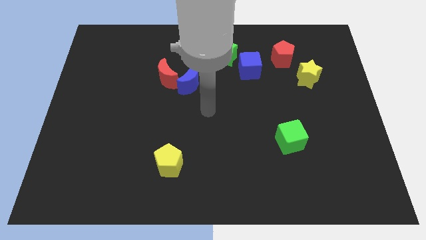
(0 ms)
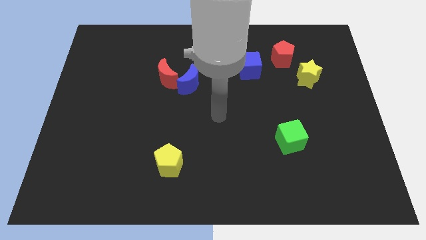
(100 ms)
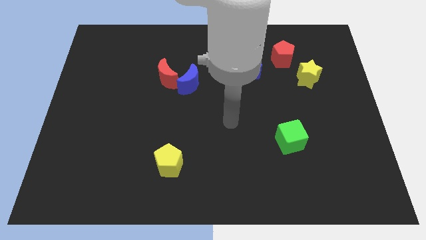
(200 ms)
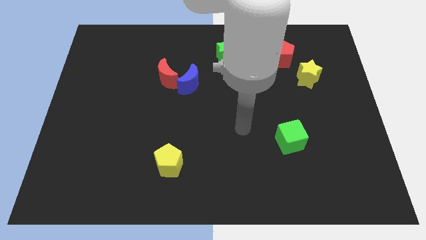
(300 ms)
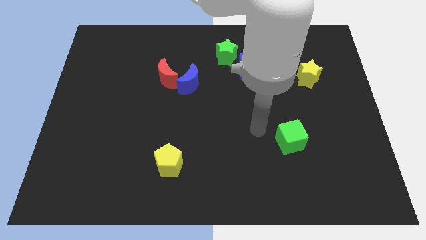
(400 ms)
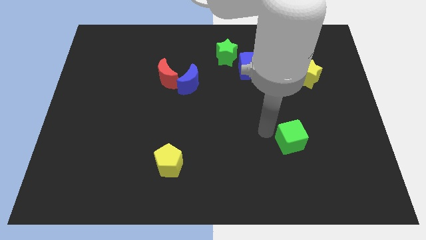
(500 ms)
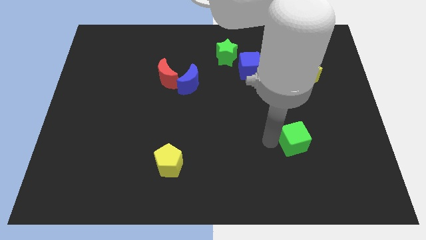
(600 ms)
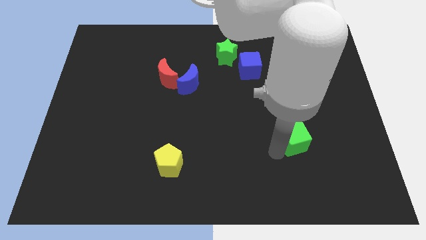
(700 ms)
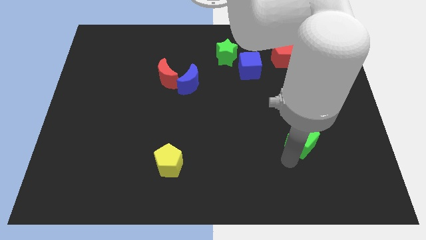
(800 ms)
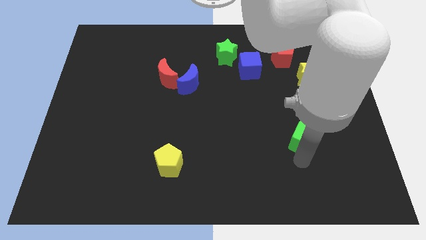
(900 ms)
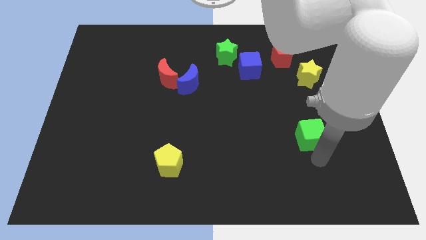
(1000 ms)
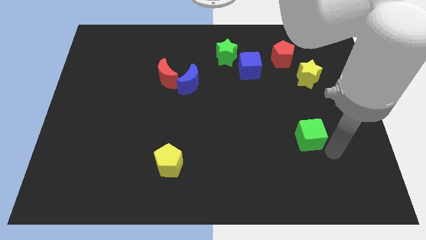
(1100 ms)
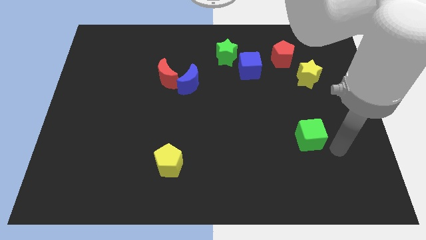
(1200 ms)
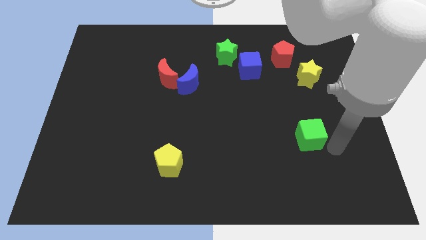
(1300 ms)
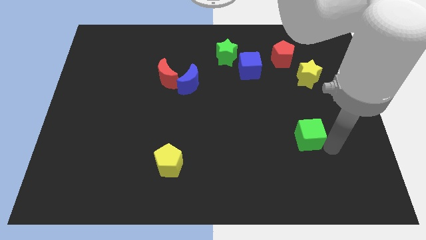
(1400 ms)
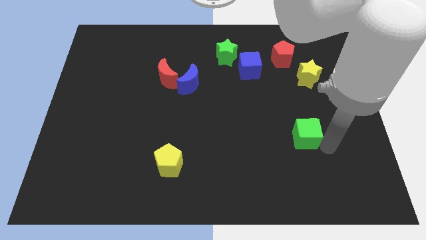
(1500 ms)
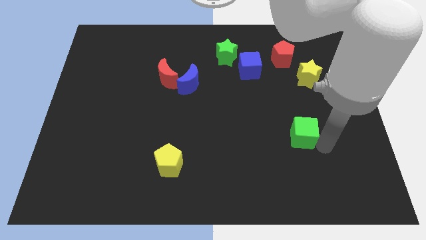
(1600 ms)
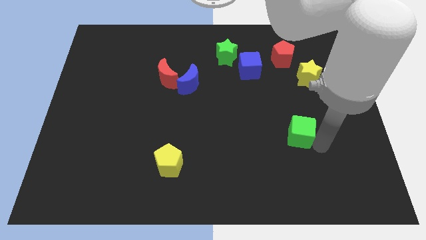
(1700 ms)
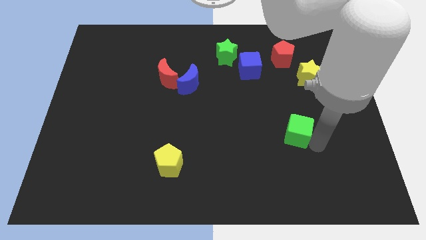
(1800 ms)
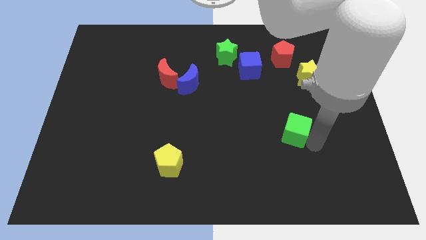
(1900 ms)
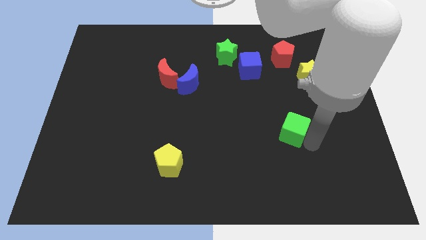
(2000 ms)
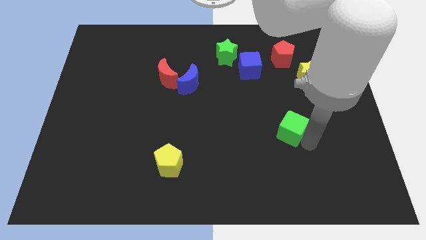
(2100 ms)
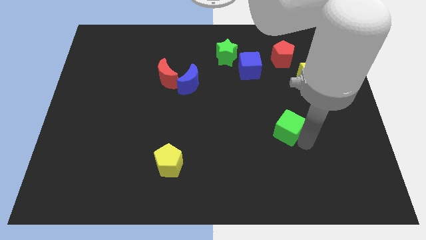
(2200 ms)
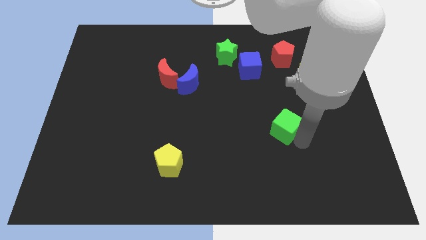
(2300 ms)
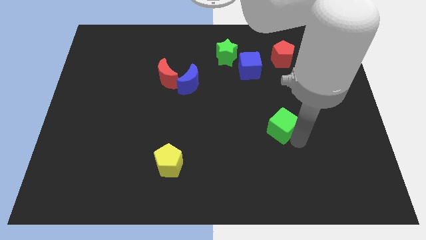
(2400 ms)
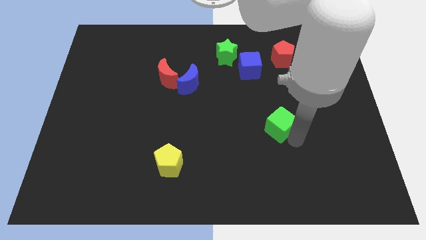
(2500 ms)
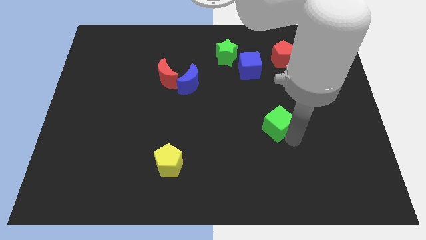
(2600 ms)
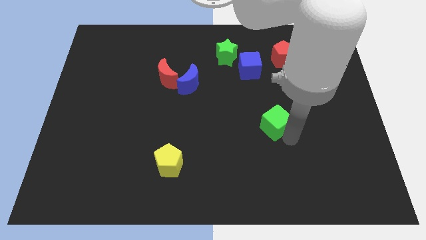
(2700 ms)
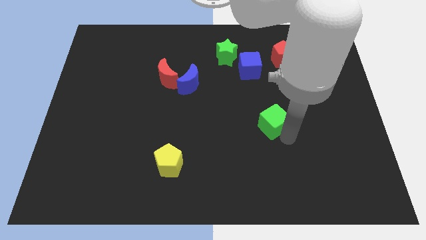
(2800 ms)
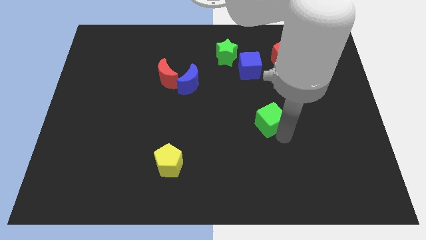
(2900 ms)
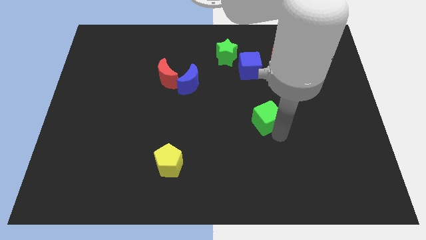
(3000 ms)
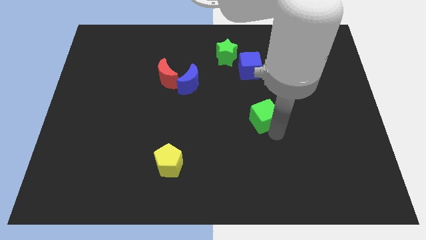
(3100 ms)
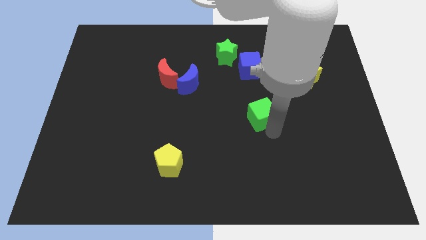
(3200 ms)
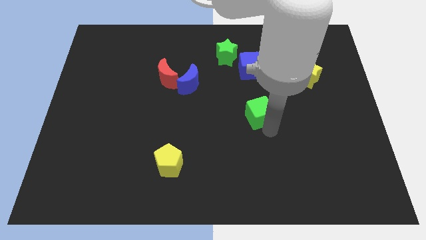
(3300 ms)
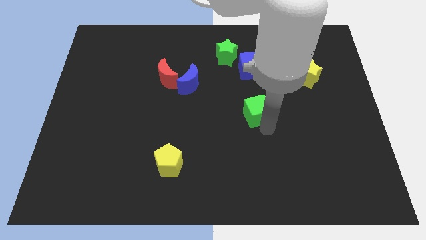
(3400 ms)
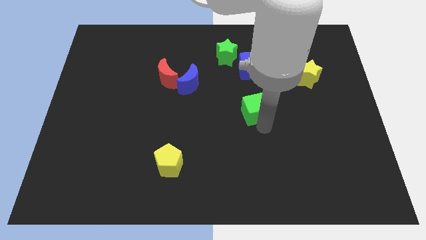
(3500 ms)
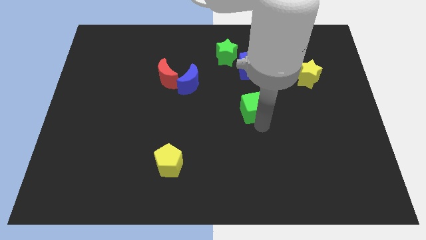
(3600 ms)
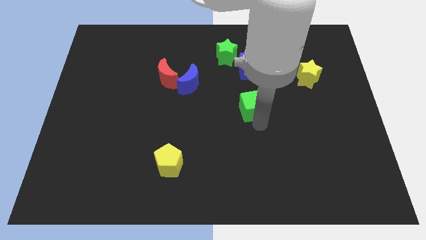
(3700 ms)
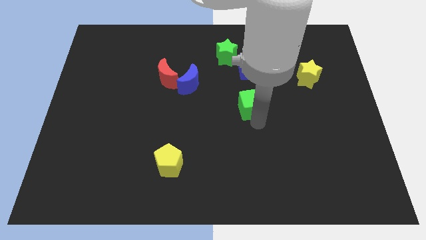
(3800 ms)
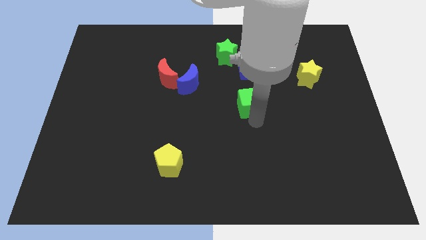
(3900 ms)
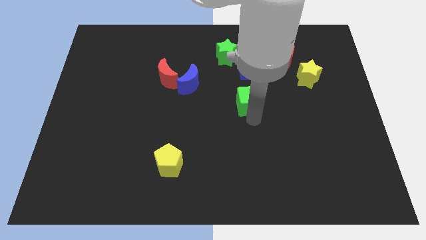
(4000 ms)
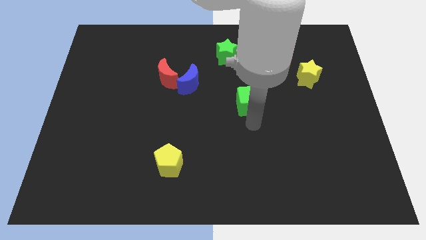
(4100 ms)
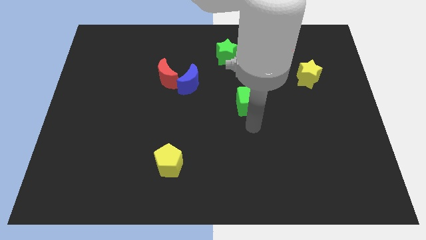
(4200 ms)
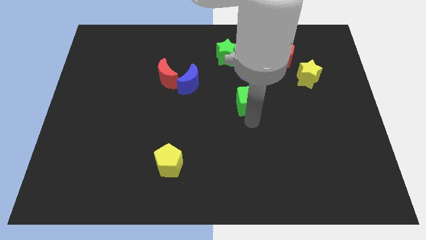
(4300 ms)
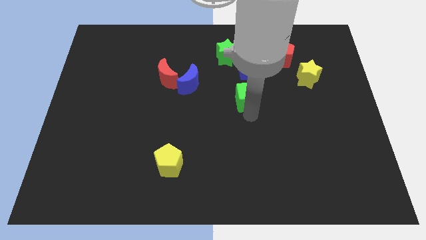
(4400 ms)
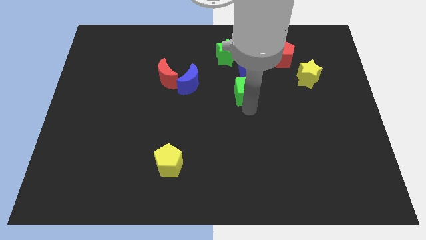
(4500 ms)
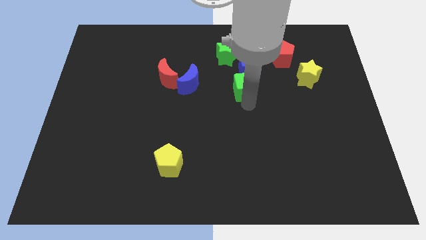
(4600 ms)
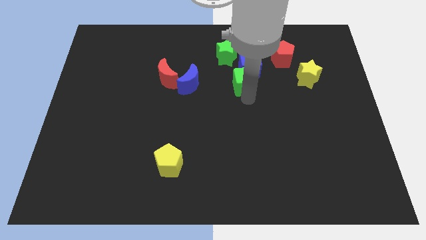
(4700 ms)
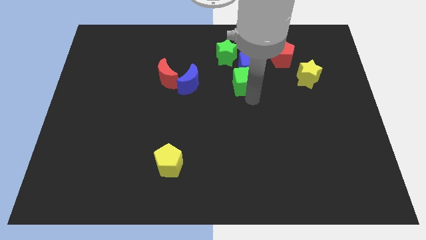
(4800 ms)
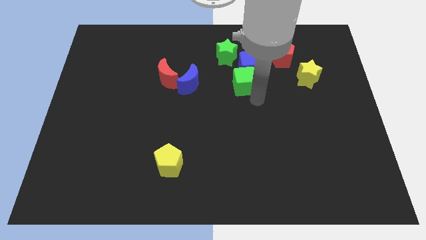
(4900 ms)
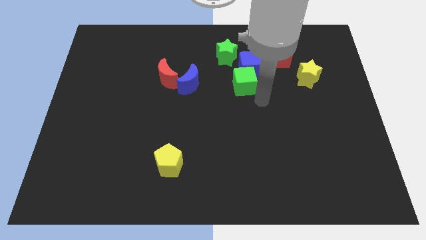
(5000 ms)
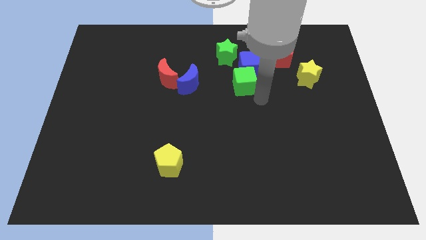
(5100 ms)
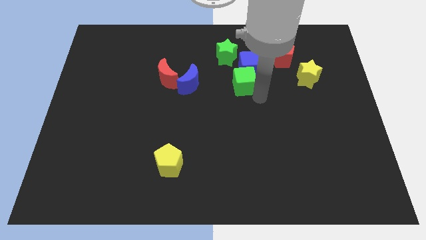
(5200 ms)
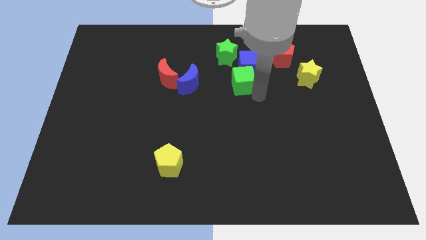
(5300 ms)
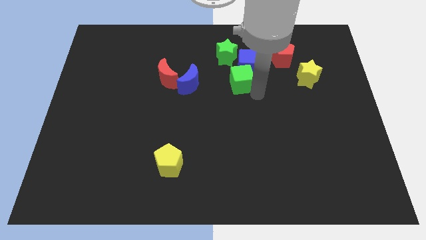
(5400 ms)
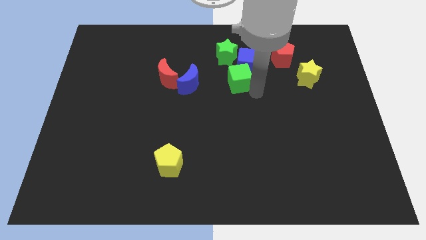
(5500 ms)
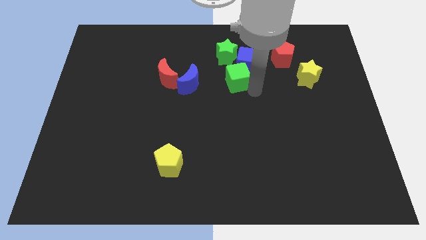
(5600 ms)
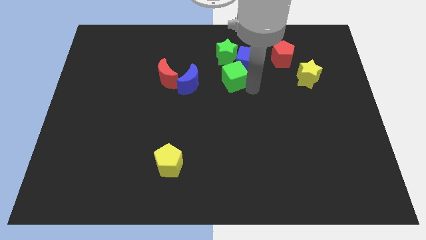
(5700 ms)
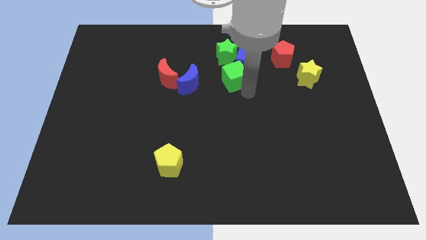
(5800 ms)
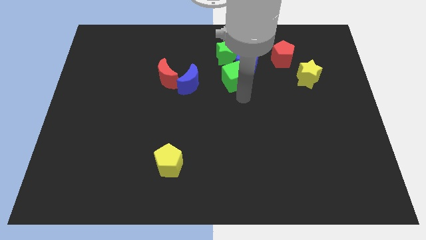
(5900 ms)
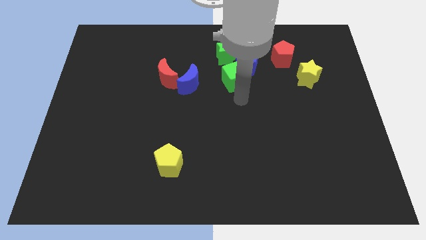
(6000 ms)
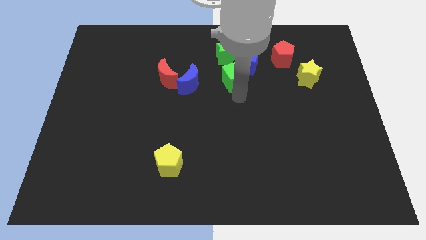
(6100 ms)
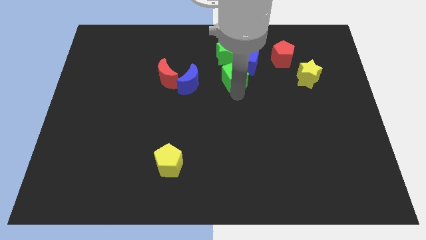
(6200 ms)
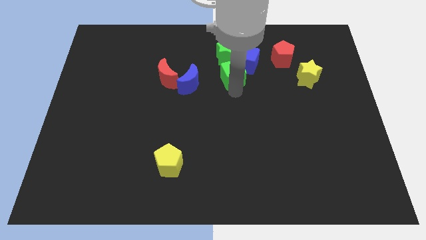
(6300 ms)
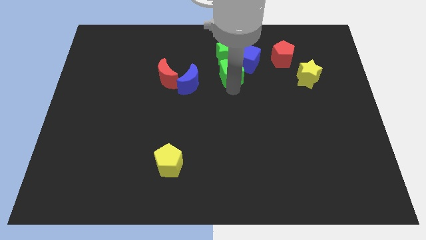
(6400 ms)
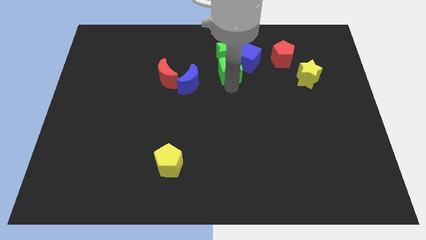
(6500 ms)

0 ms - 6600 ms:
push the green cube to the green star
